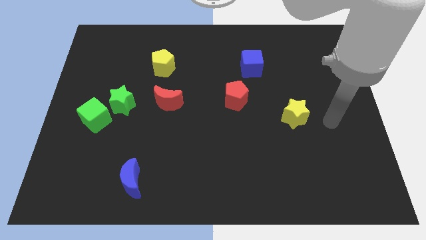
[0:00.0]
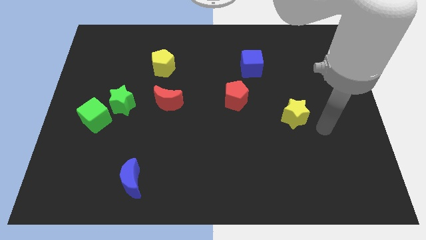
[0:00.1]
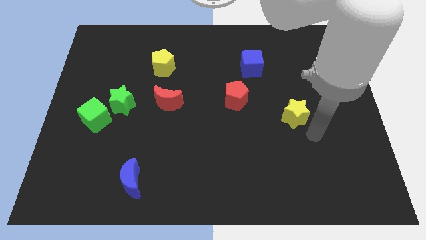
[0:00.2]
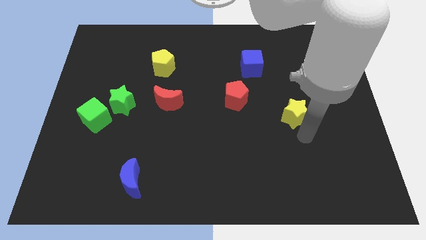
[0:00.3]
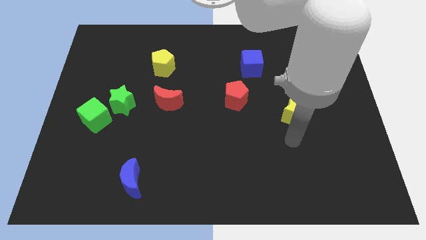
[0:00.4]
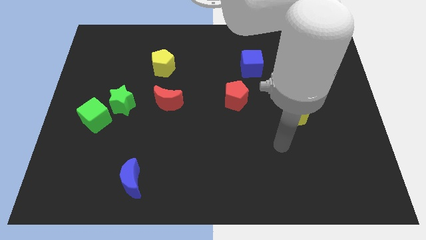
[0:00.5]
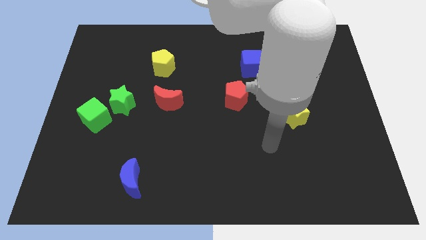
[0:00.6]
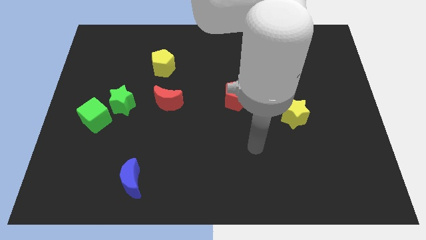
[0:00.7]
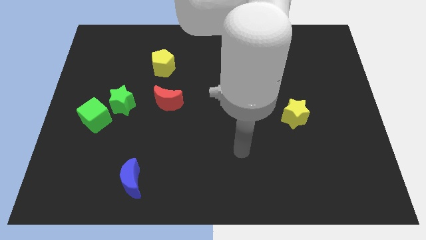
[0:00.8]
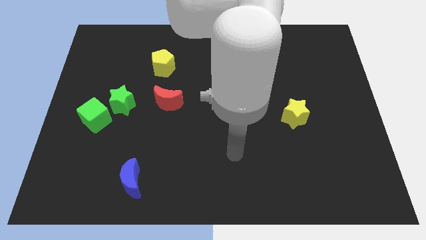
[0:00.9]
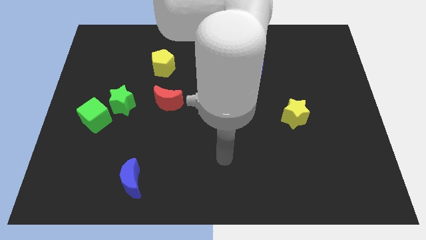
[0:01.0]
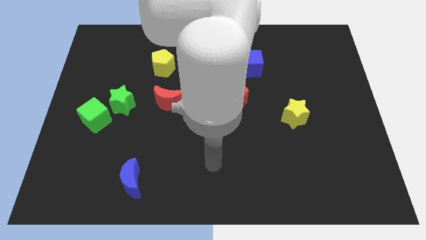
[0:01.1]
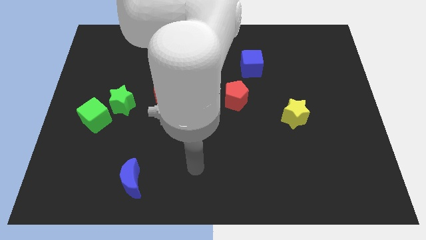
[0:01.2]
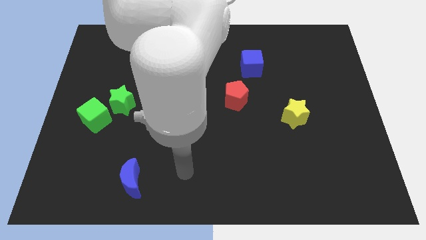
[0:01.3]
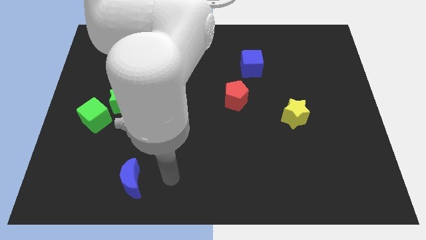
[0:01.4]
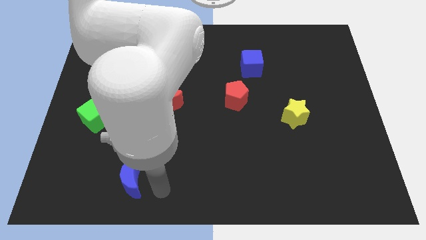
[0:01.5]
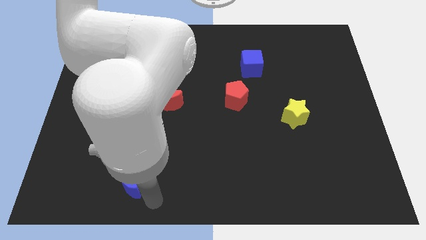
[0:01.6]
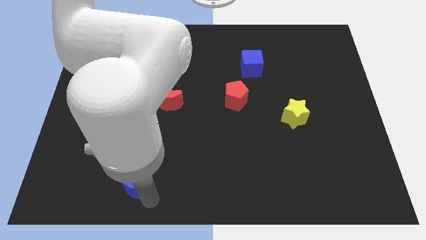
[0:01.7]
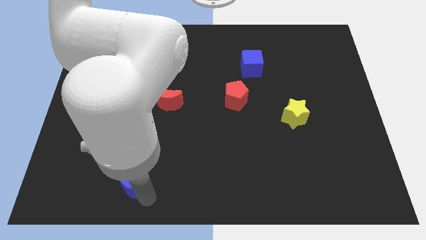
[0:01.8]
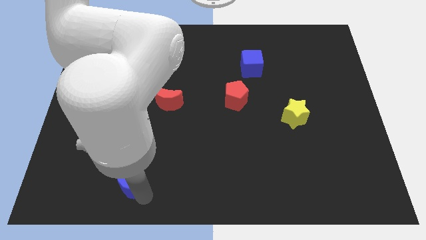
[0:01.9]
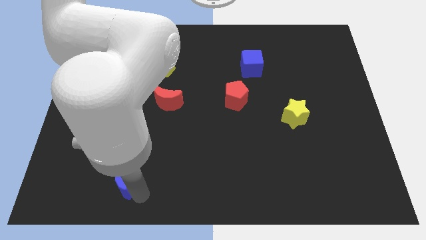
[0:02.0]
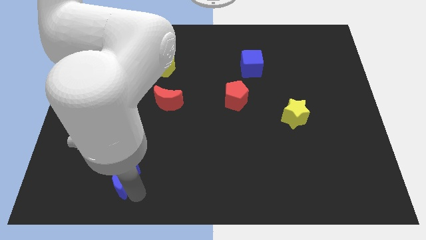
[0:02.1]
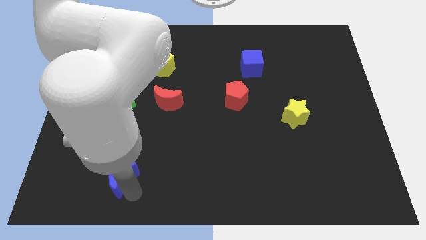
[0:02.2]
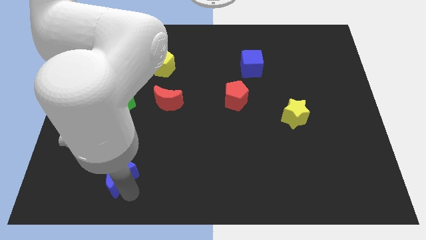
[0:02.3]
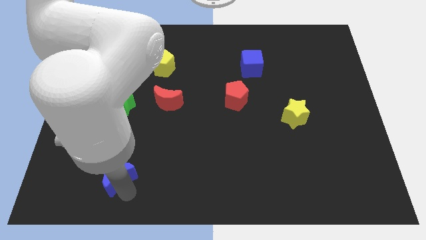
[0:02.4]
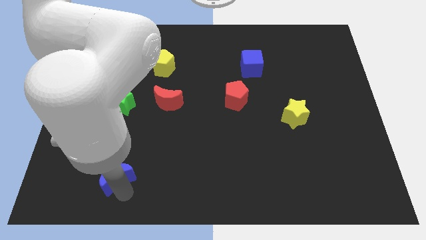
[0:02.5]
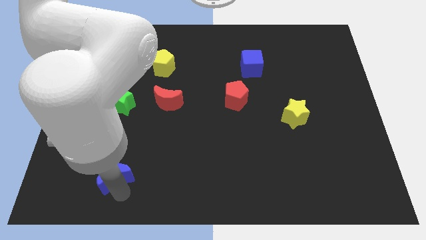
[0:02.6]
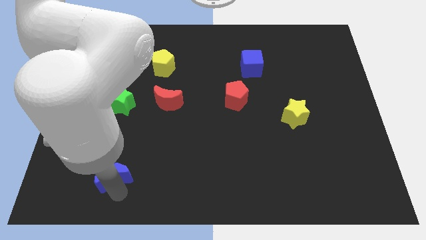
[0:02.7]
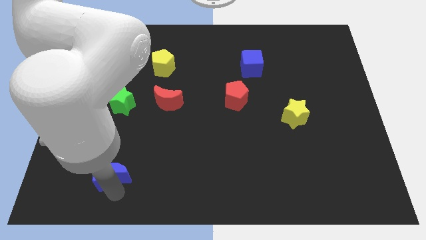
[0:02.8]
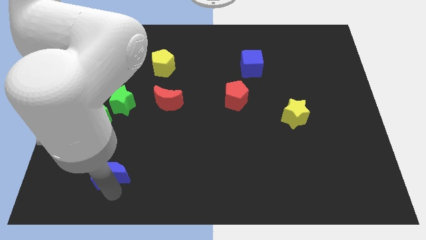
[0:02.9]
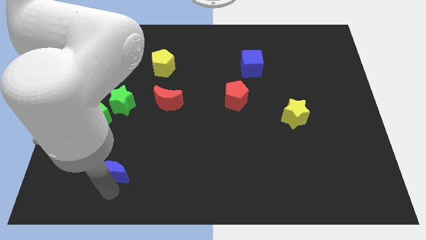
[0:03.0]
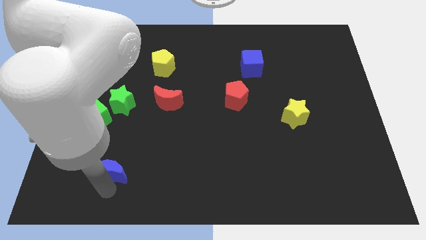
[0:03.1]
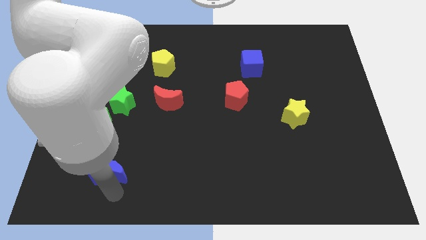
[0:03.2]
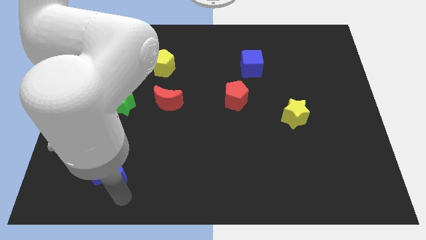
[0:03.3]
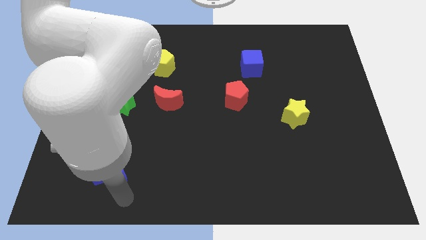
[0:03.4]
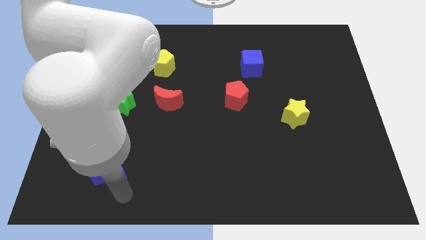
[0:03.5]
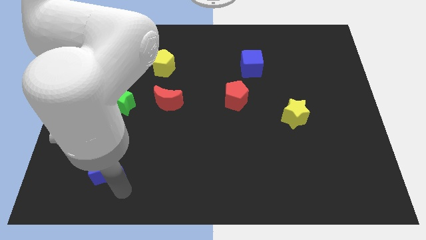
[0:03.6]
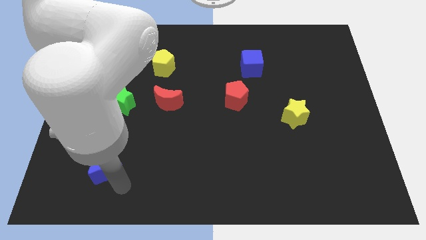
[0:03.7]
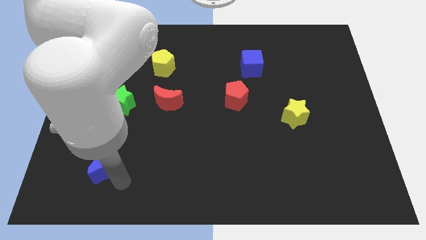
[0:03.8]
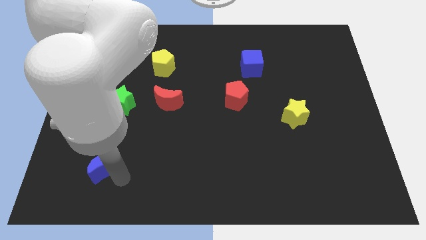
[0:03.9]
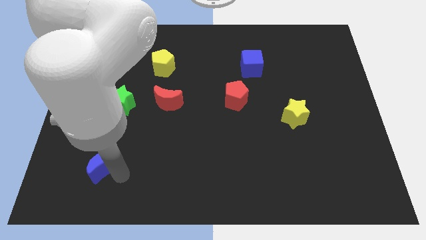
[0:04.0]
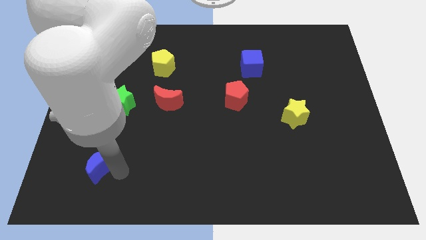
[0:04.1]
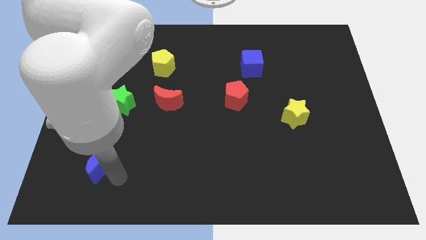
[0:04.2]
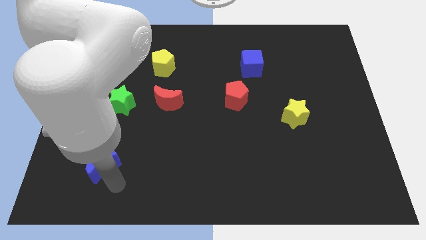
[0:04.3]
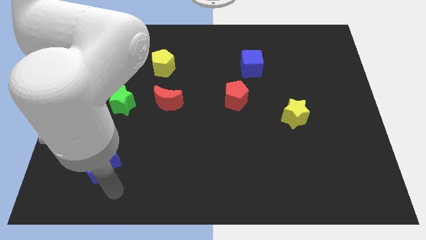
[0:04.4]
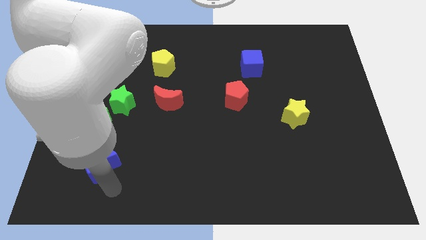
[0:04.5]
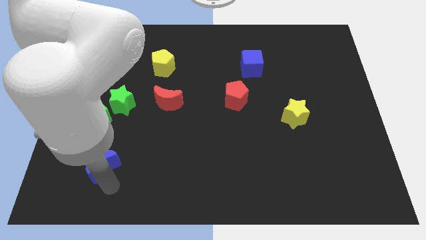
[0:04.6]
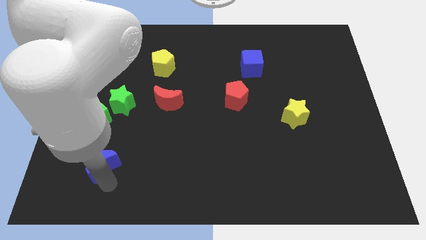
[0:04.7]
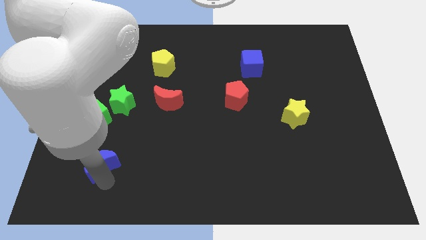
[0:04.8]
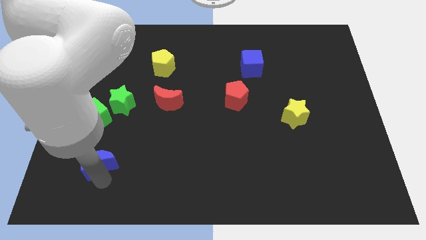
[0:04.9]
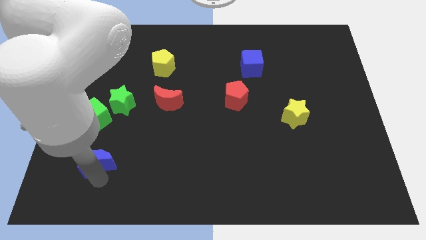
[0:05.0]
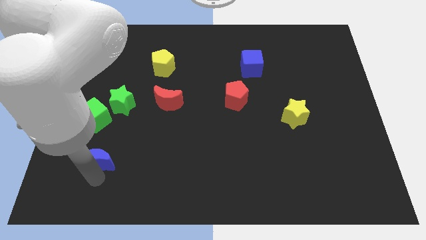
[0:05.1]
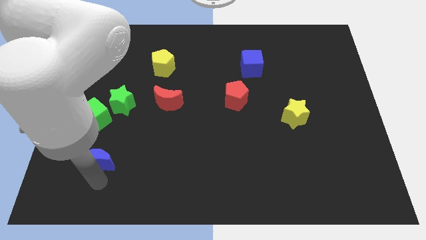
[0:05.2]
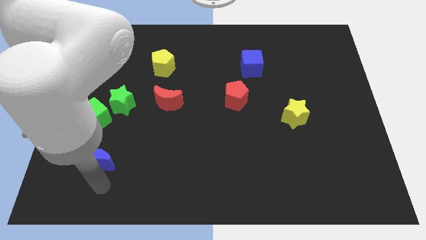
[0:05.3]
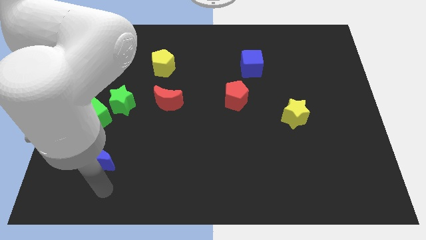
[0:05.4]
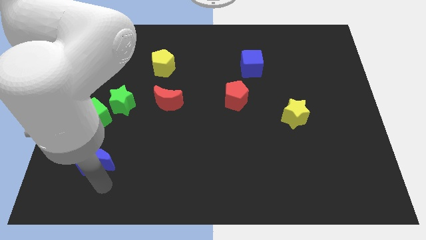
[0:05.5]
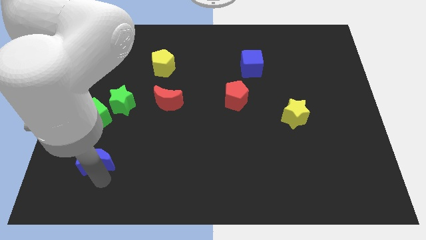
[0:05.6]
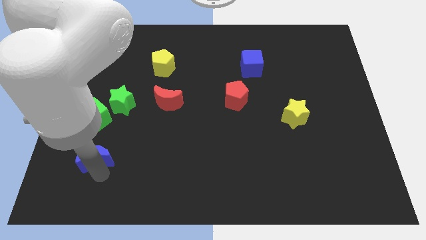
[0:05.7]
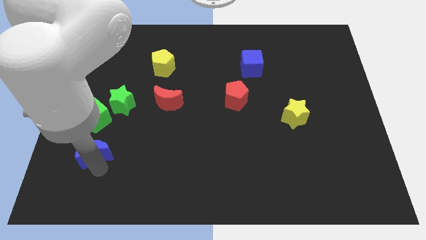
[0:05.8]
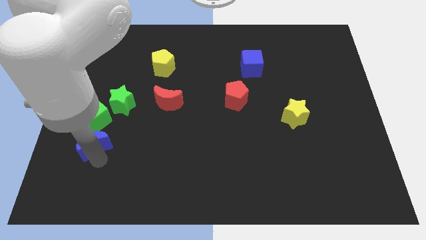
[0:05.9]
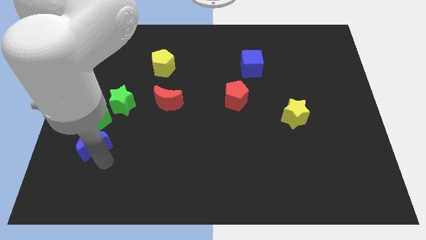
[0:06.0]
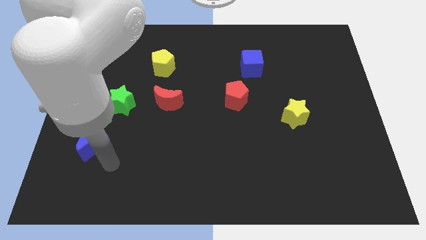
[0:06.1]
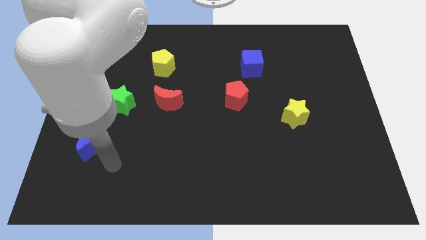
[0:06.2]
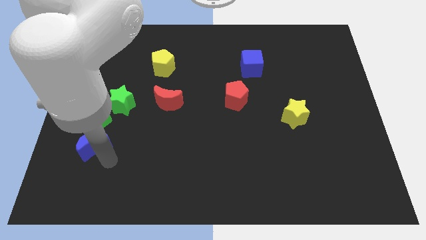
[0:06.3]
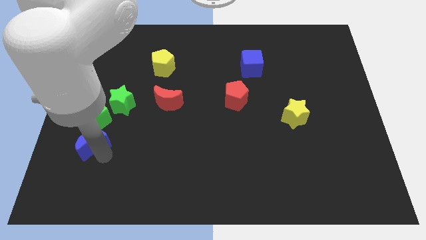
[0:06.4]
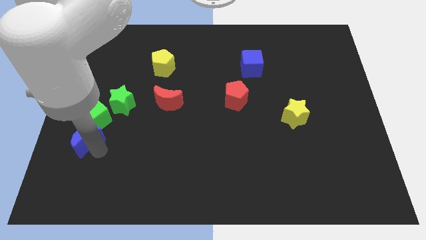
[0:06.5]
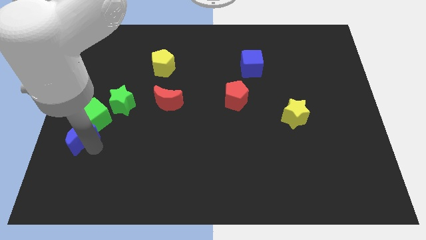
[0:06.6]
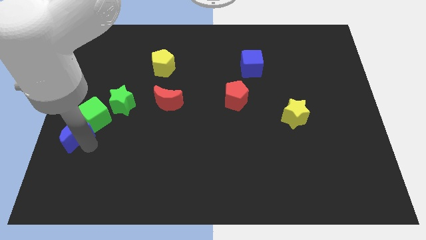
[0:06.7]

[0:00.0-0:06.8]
slide the blue moon to the left side
